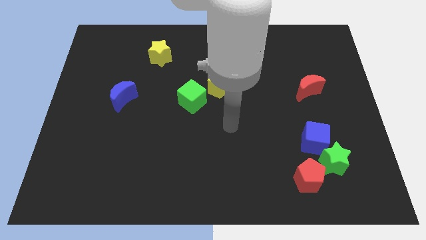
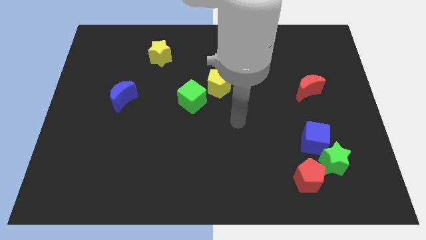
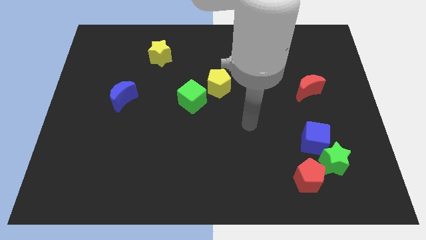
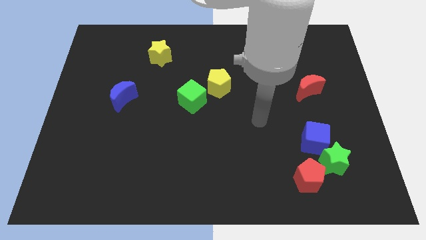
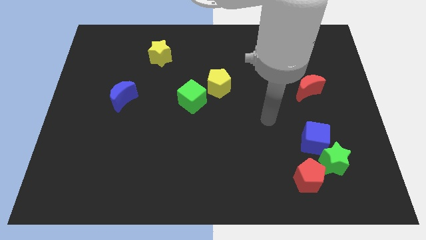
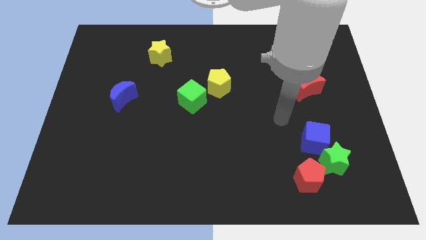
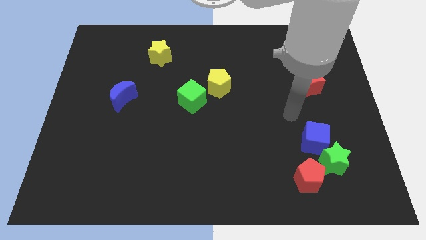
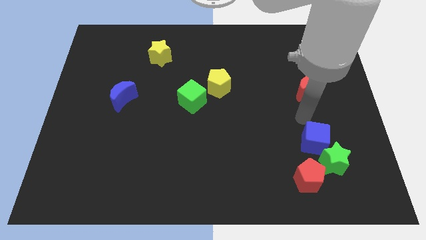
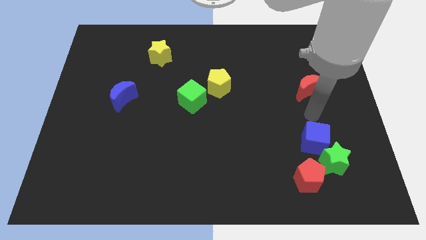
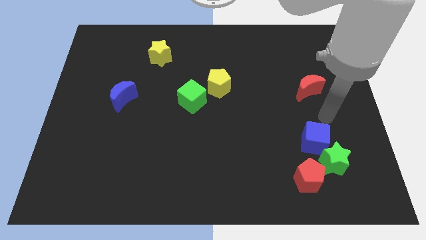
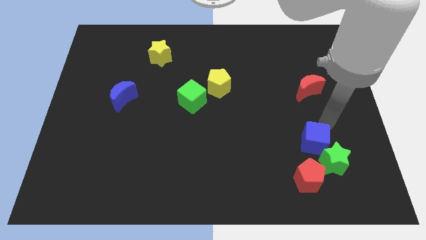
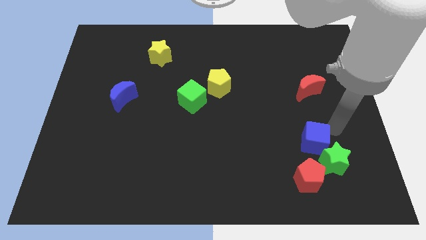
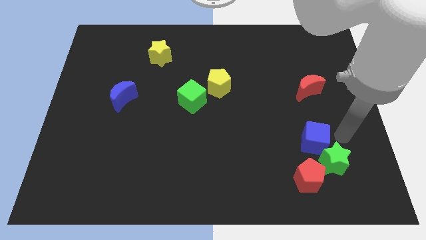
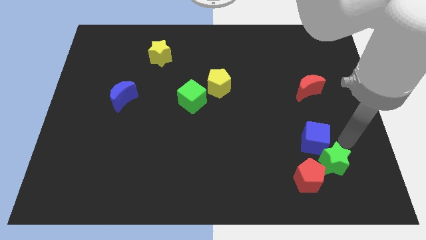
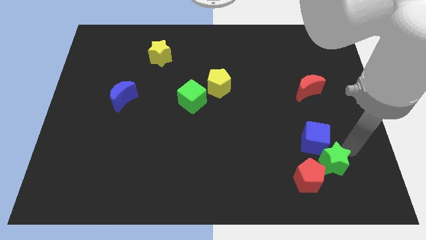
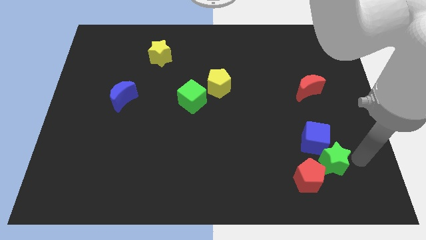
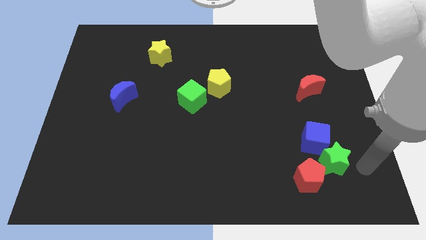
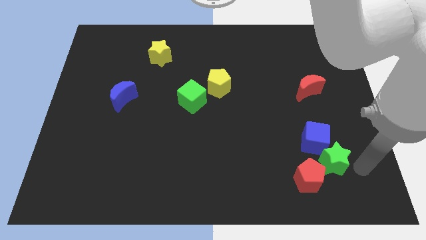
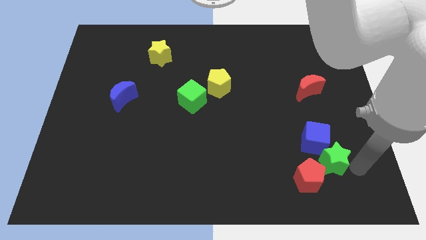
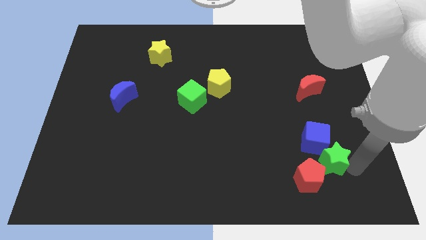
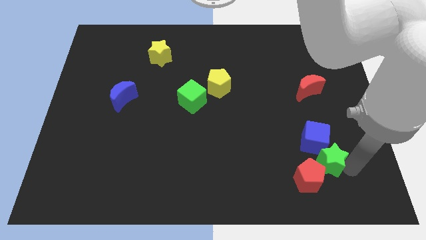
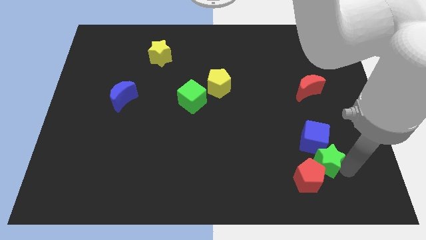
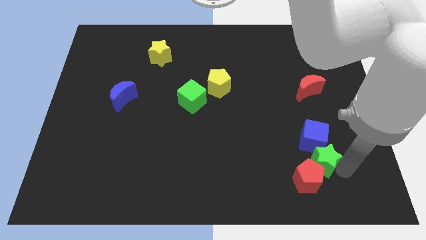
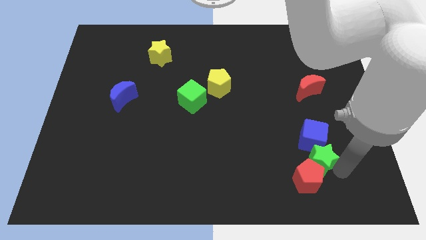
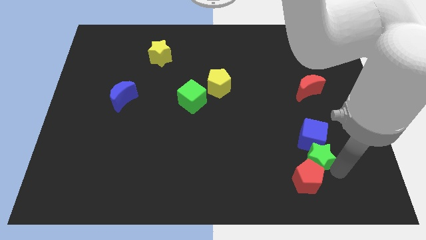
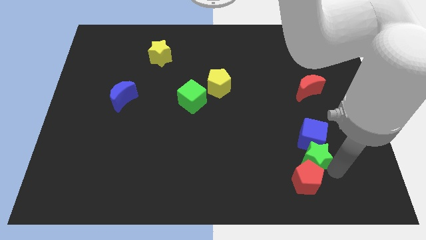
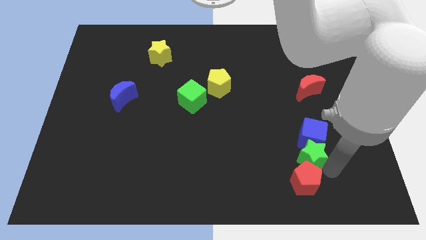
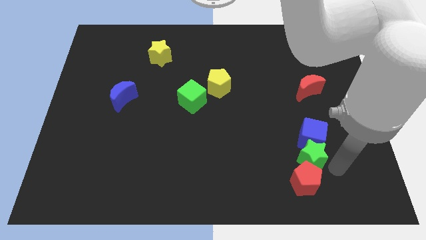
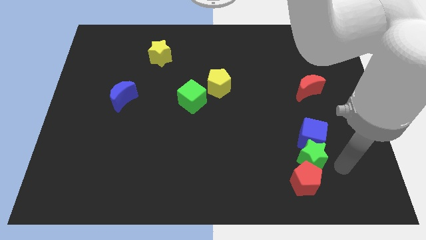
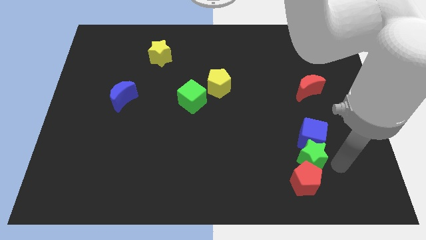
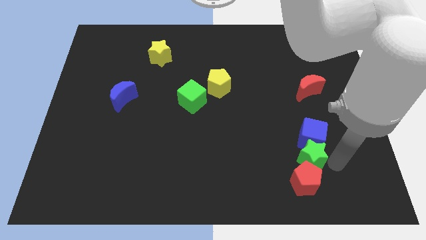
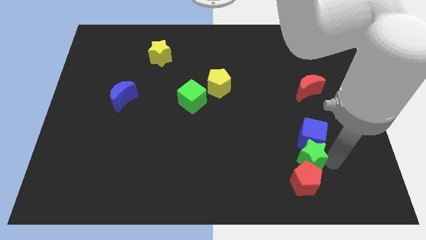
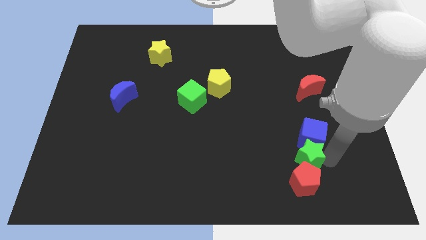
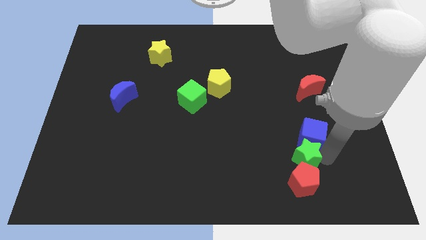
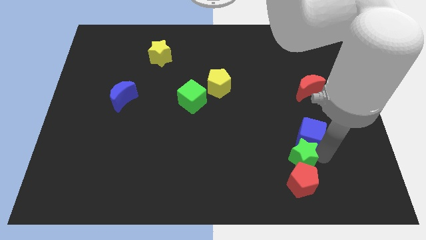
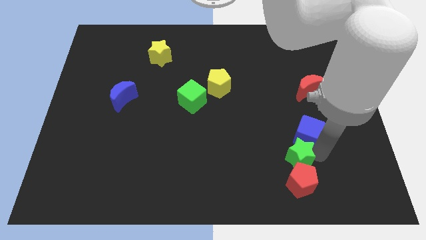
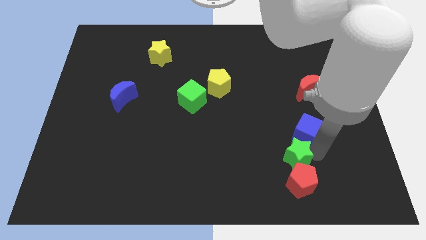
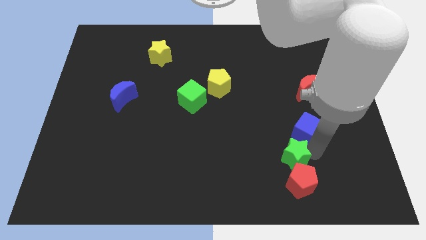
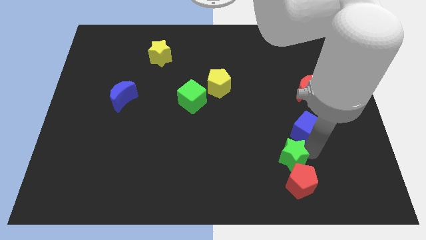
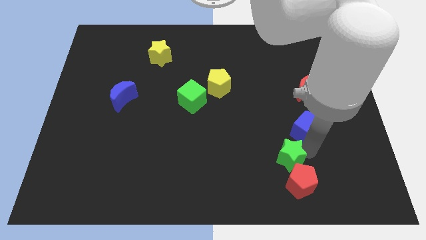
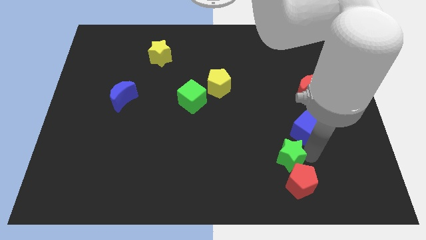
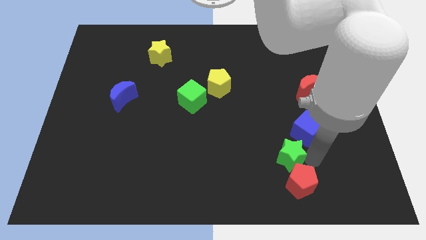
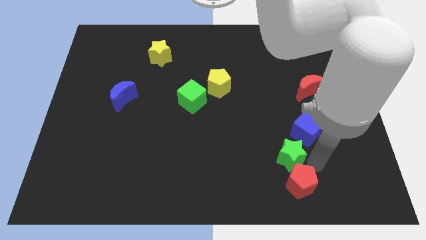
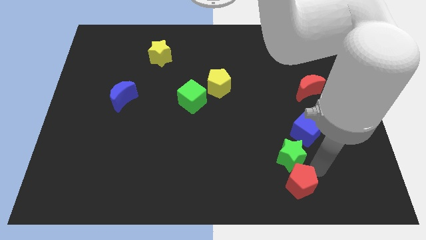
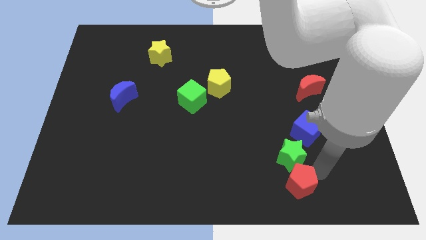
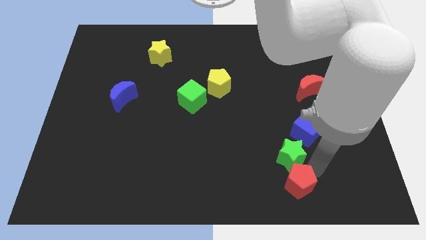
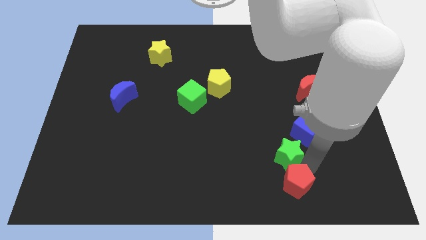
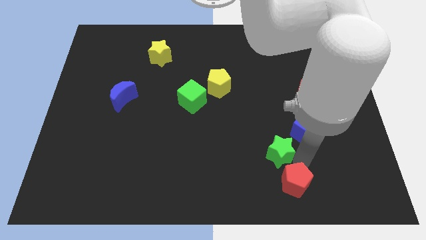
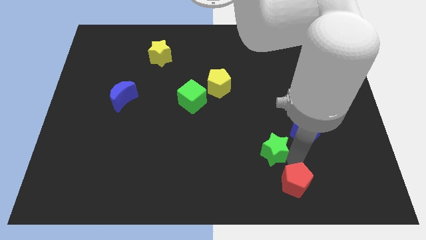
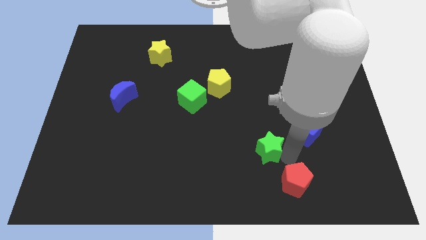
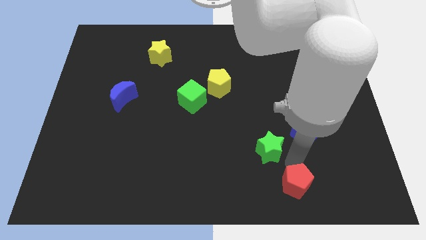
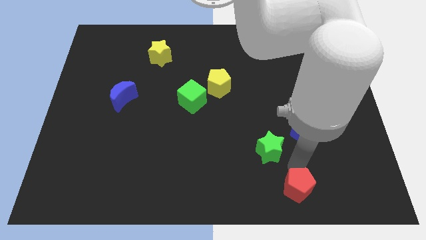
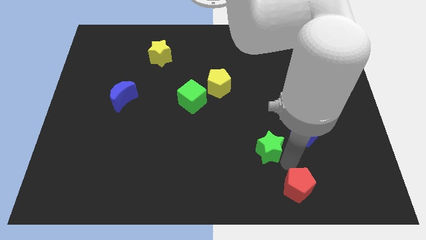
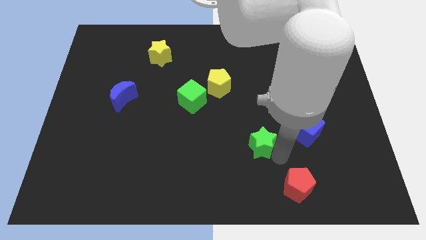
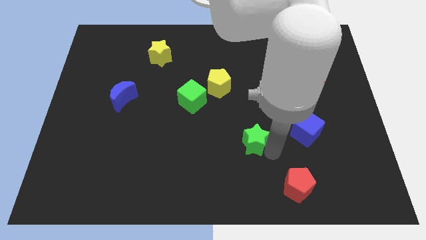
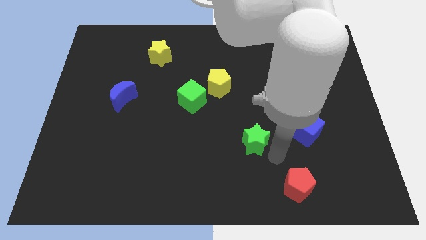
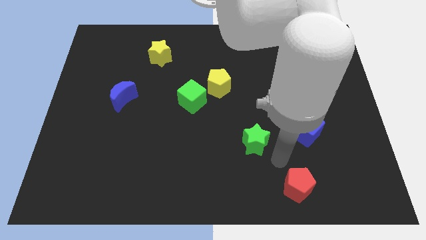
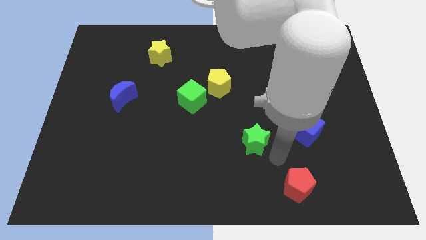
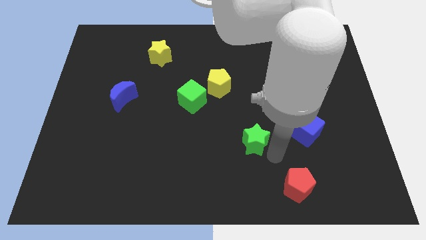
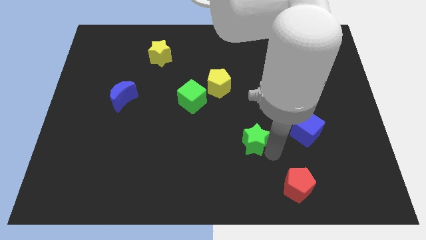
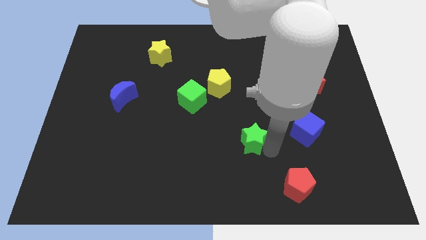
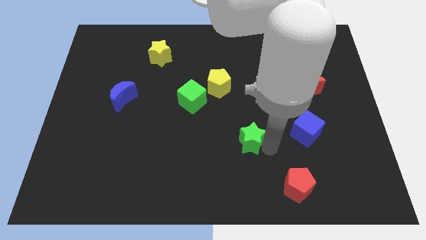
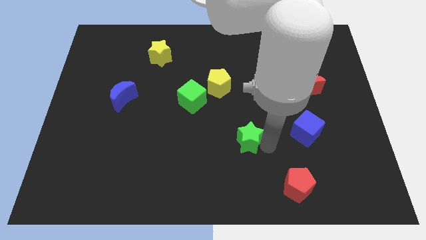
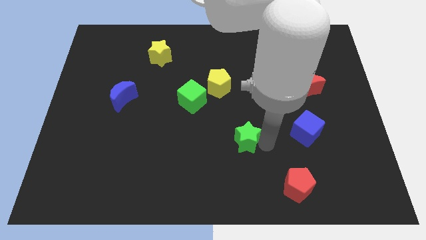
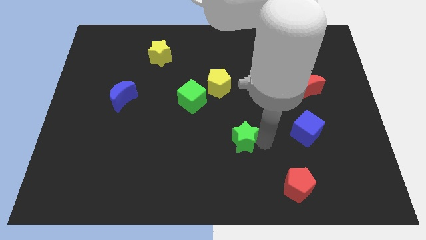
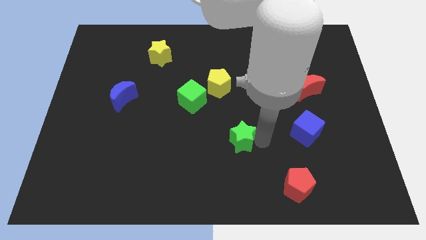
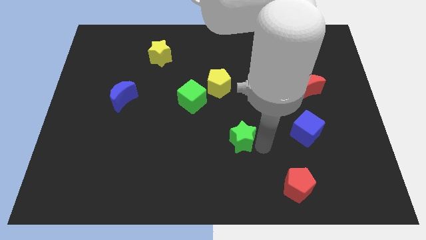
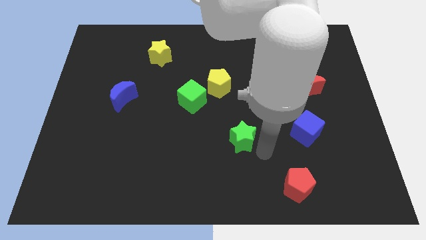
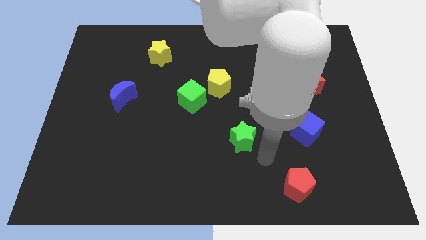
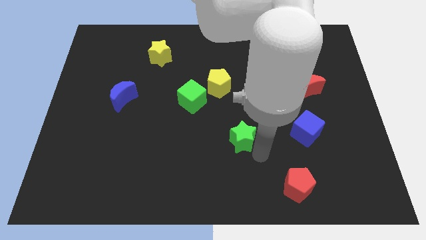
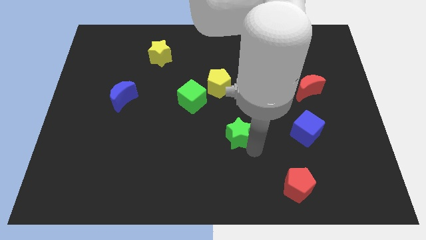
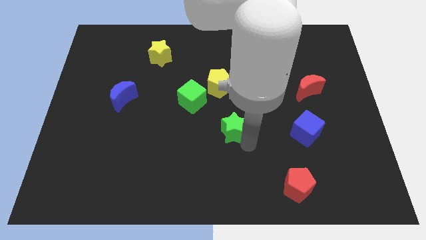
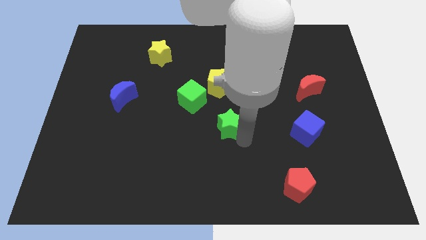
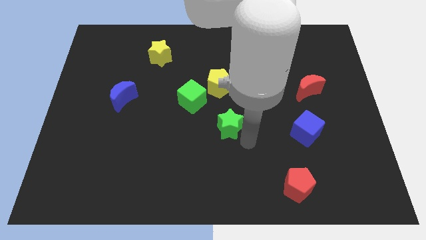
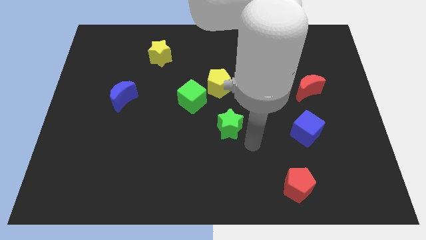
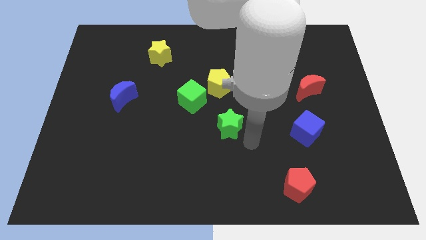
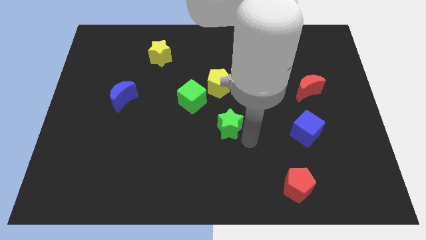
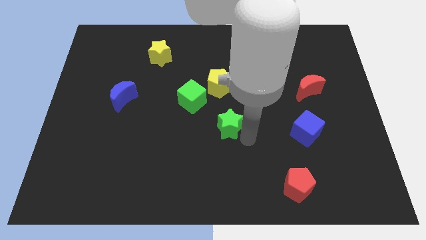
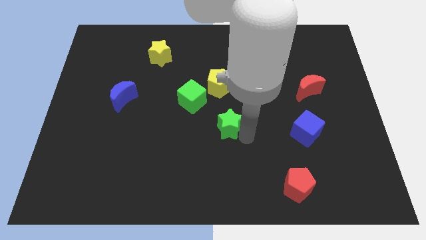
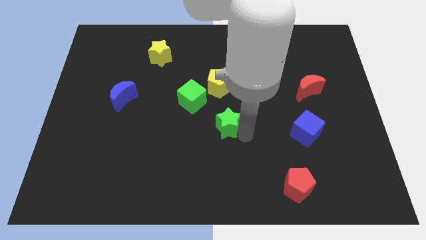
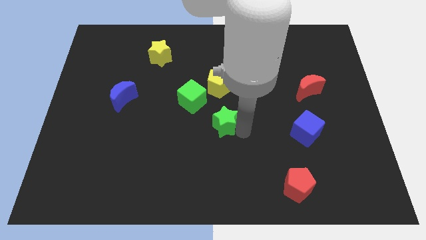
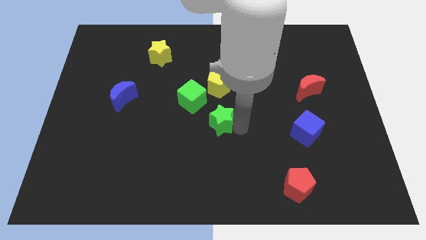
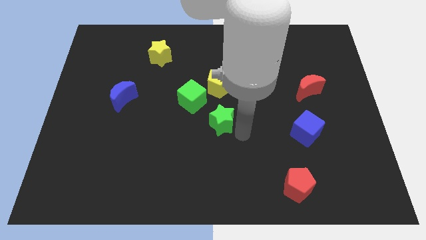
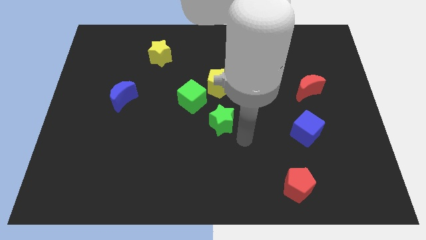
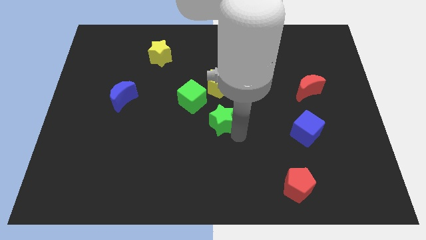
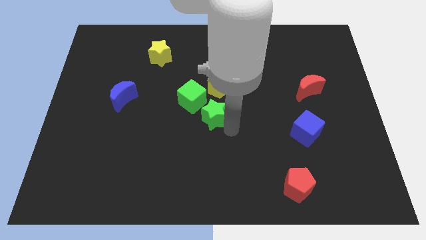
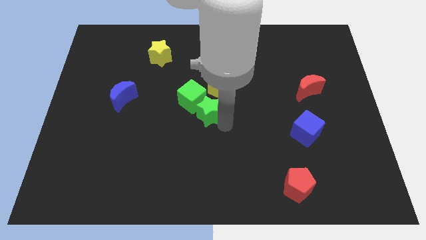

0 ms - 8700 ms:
put the green star close to the green cube
